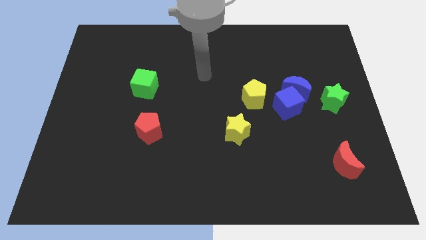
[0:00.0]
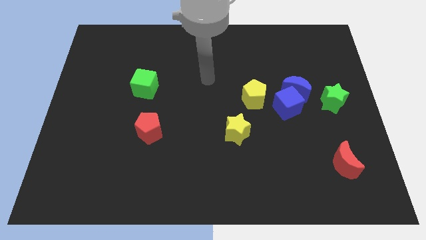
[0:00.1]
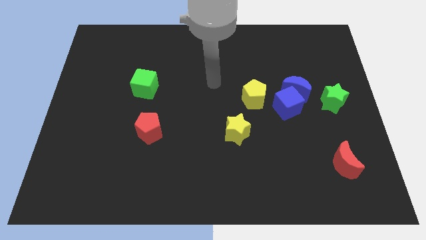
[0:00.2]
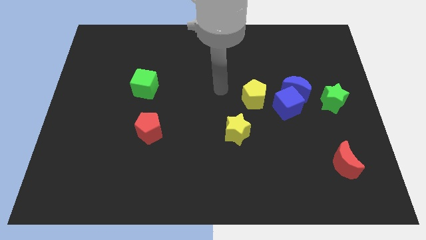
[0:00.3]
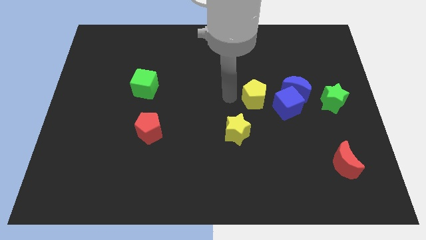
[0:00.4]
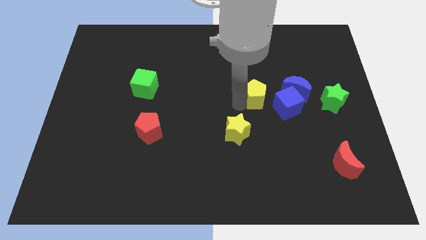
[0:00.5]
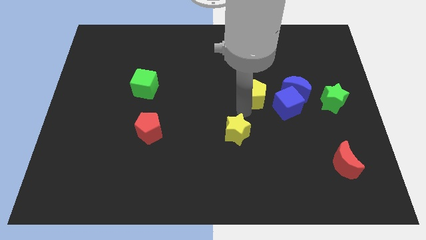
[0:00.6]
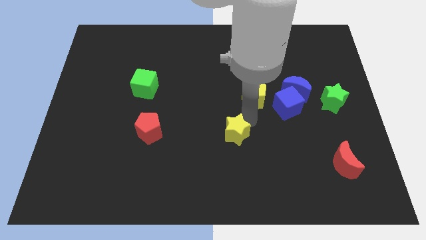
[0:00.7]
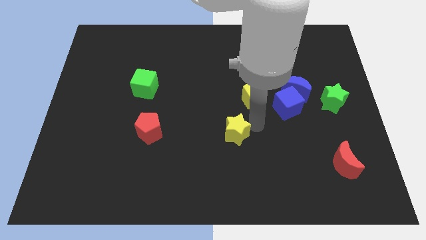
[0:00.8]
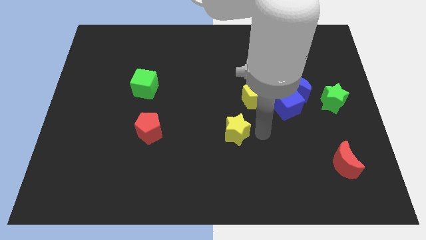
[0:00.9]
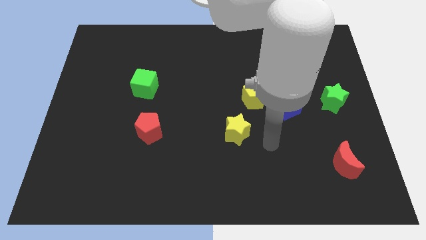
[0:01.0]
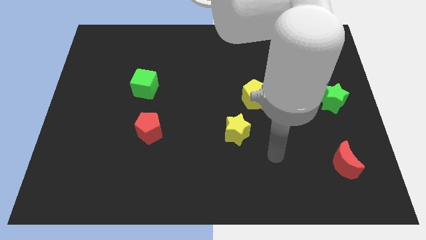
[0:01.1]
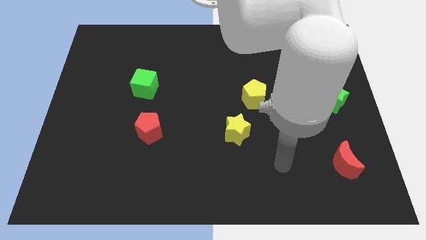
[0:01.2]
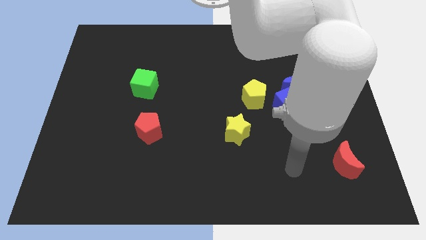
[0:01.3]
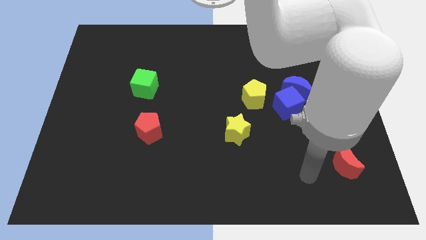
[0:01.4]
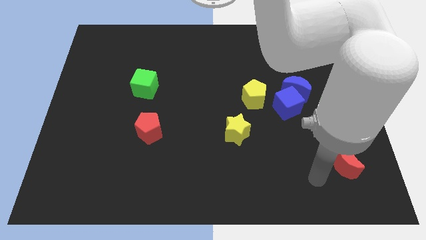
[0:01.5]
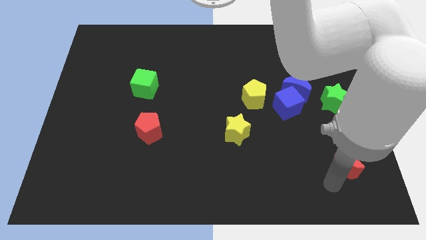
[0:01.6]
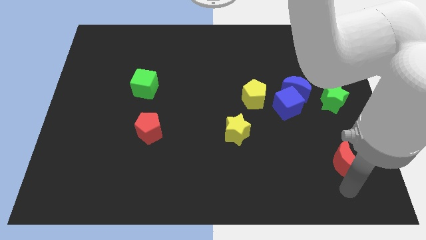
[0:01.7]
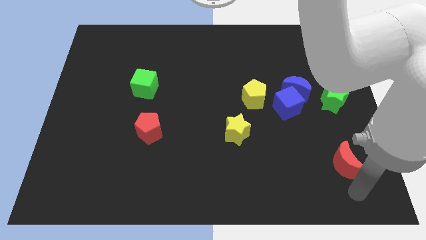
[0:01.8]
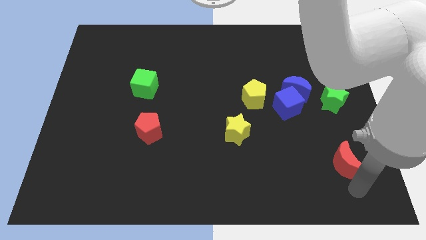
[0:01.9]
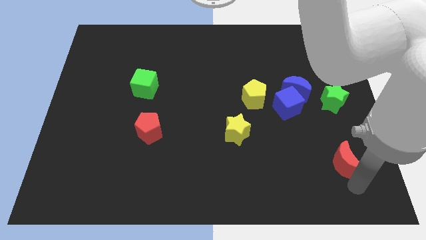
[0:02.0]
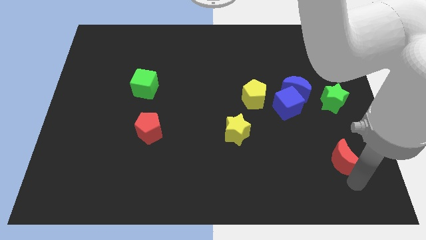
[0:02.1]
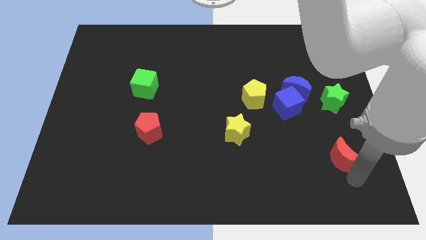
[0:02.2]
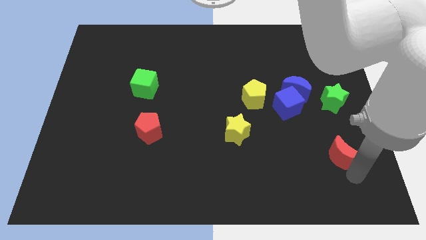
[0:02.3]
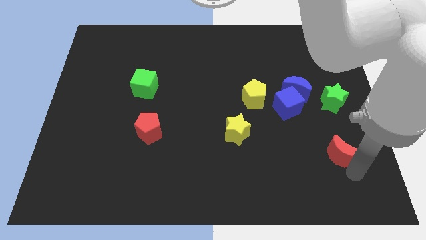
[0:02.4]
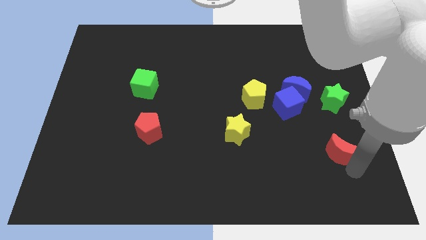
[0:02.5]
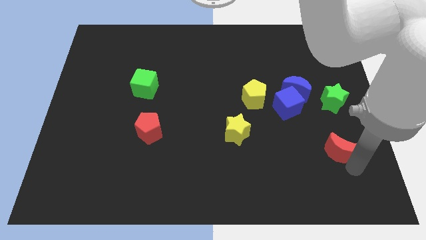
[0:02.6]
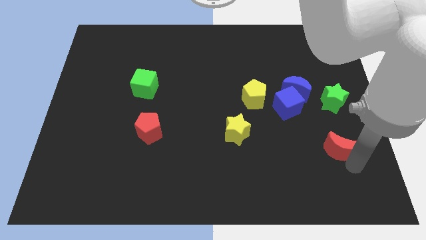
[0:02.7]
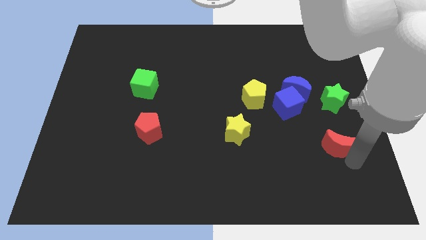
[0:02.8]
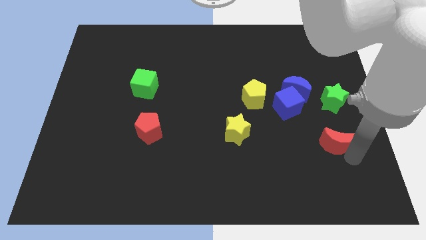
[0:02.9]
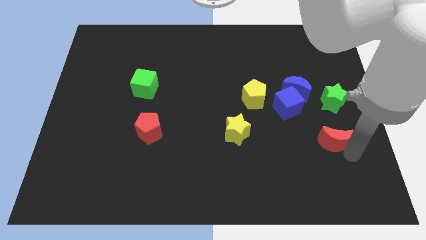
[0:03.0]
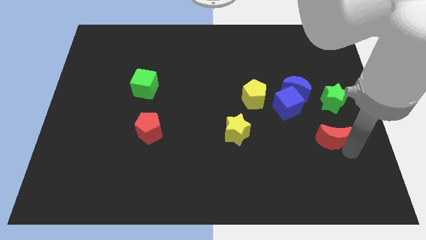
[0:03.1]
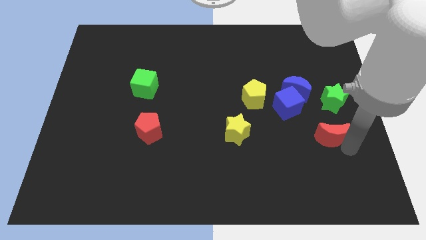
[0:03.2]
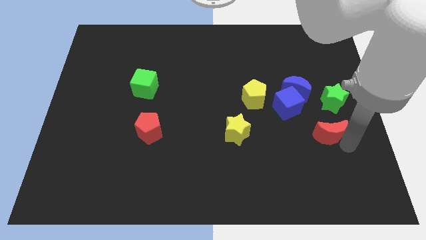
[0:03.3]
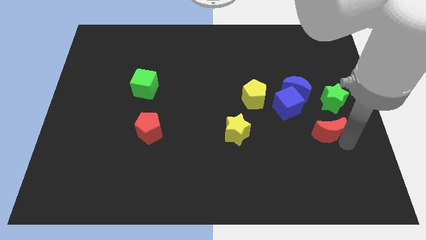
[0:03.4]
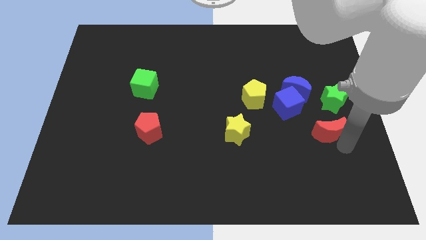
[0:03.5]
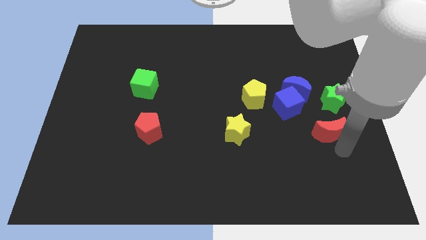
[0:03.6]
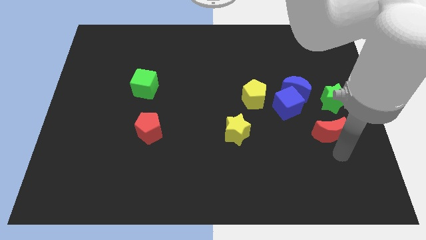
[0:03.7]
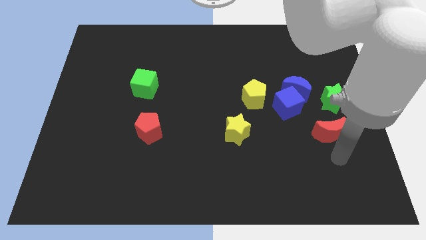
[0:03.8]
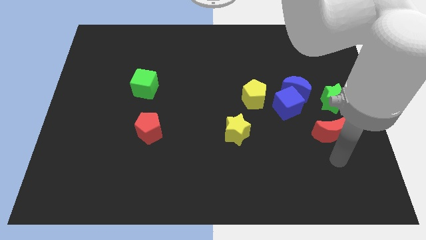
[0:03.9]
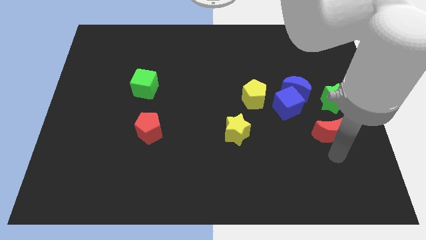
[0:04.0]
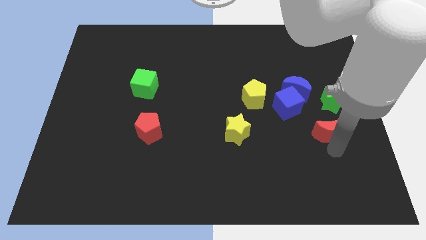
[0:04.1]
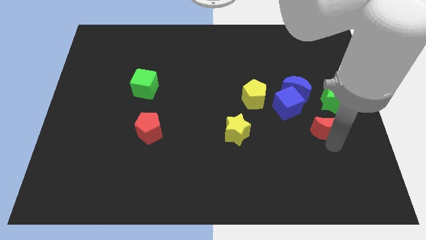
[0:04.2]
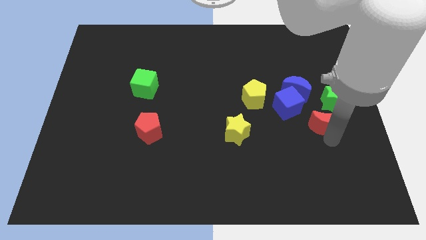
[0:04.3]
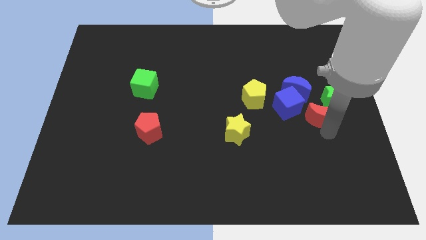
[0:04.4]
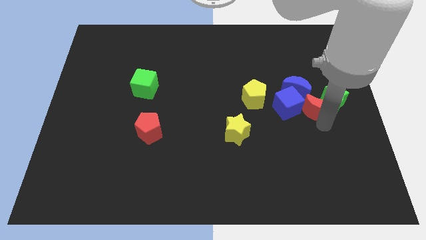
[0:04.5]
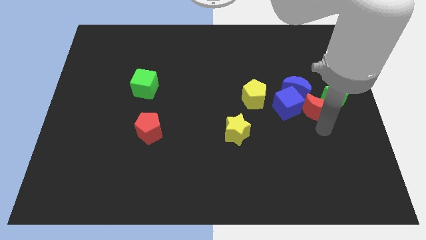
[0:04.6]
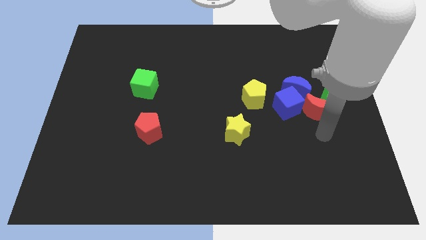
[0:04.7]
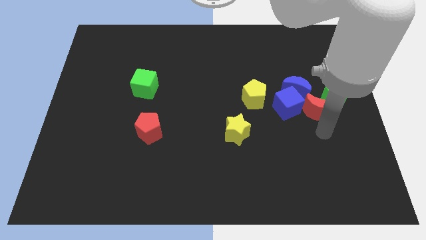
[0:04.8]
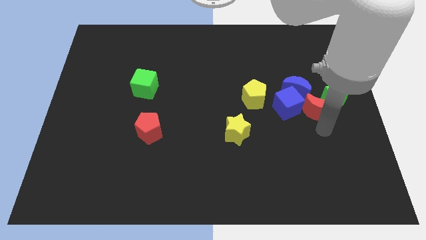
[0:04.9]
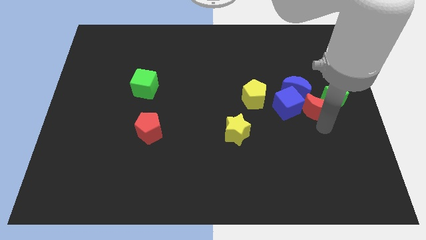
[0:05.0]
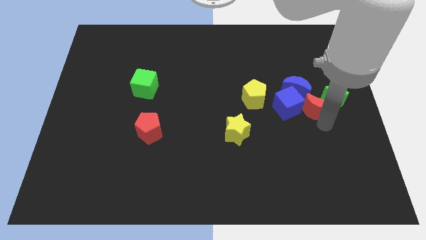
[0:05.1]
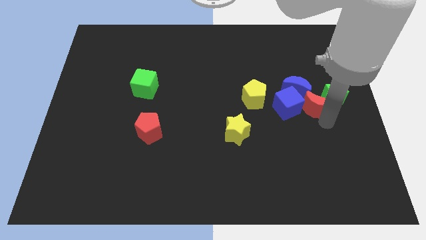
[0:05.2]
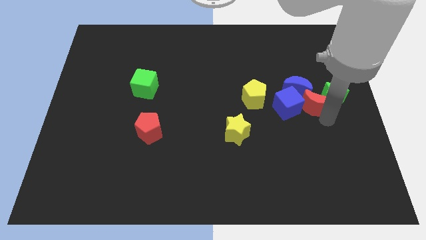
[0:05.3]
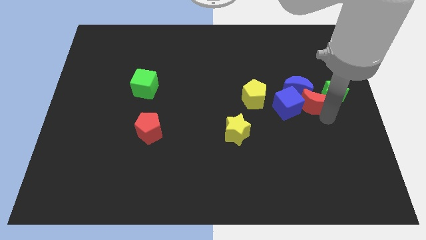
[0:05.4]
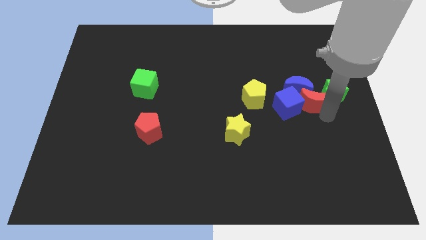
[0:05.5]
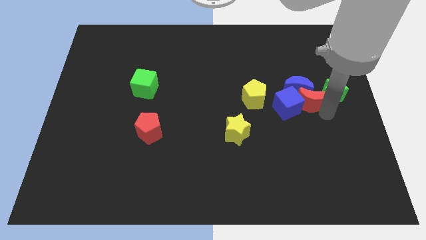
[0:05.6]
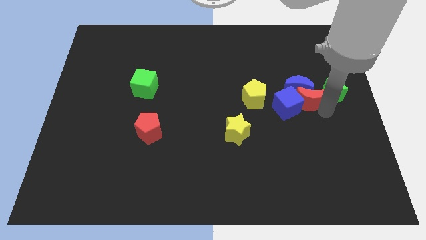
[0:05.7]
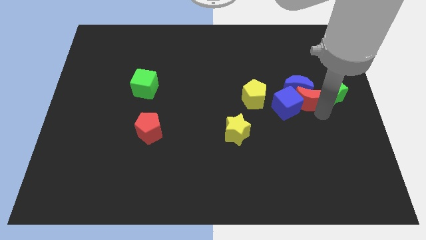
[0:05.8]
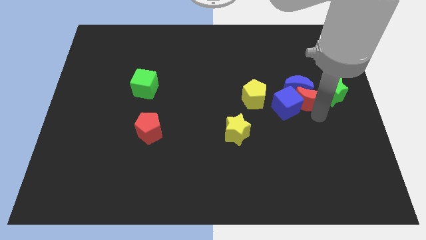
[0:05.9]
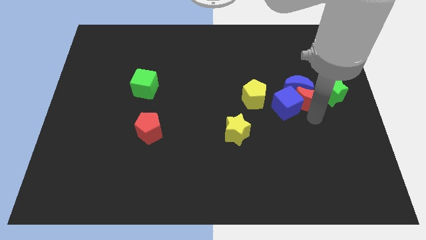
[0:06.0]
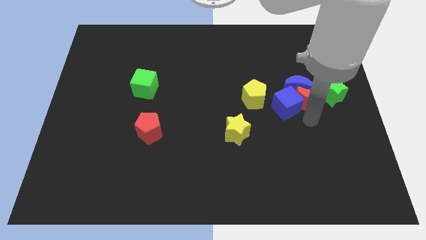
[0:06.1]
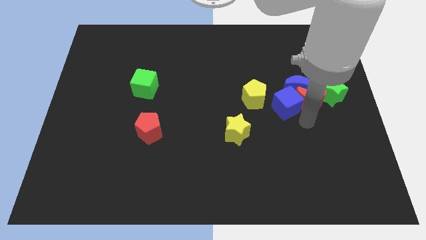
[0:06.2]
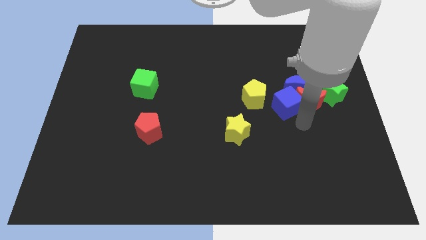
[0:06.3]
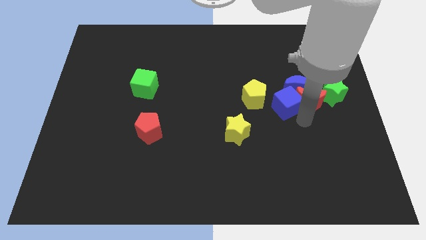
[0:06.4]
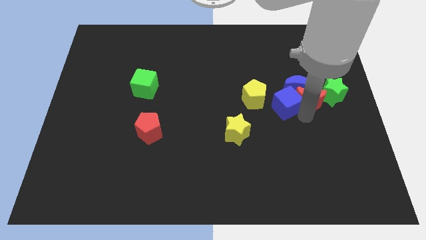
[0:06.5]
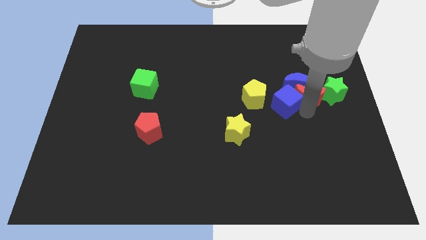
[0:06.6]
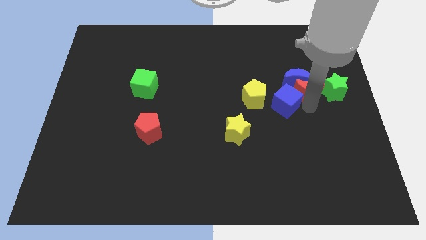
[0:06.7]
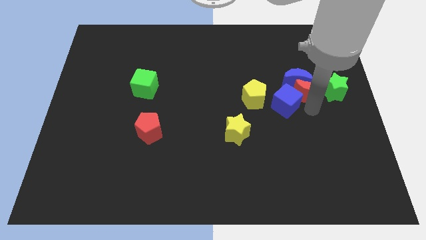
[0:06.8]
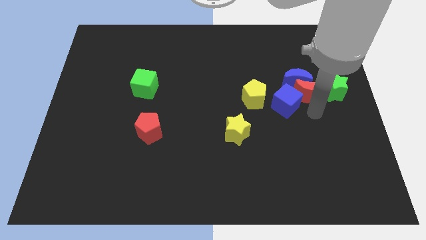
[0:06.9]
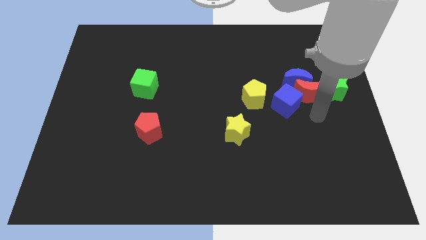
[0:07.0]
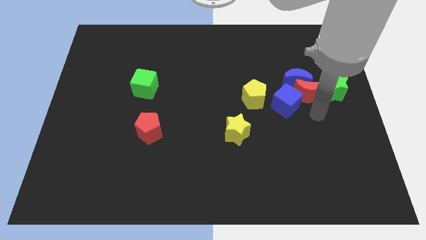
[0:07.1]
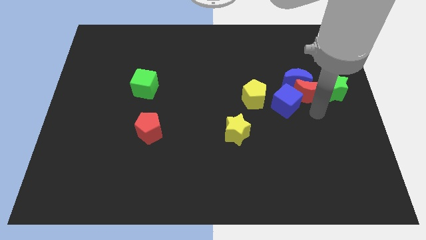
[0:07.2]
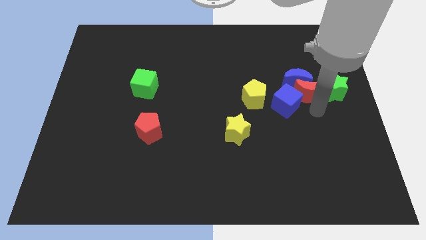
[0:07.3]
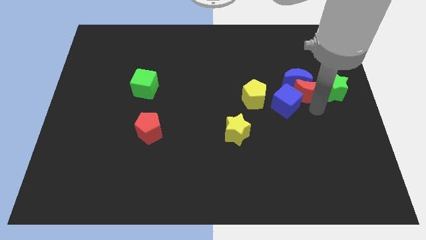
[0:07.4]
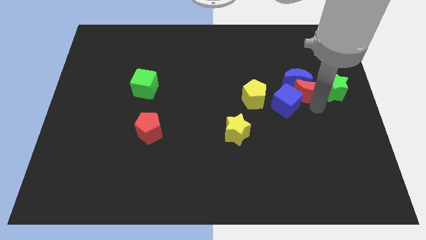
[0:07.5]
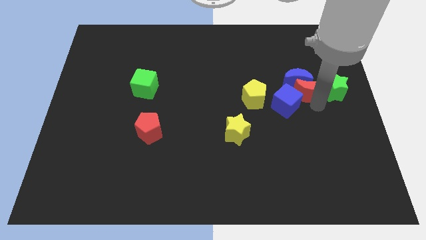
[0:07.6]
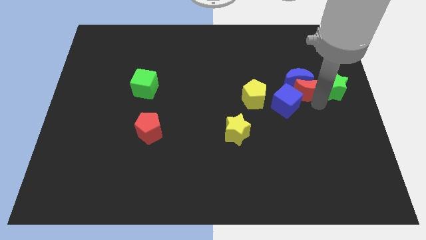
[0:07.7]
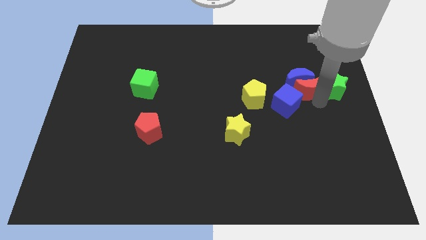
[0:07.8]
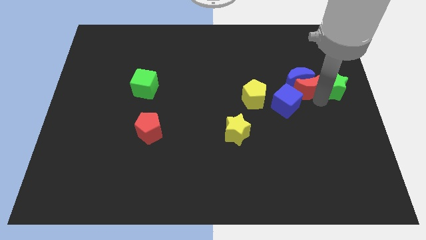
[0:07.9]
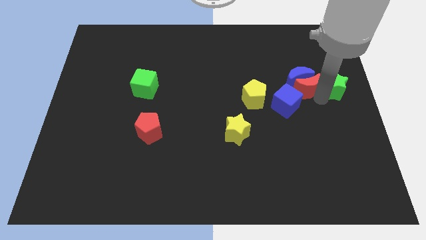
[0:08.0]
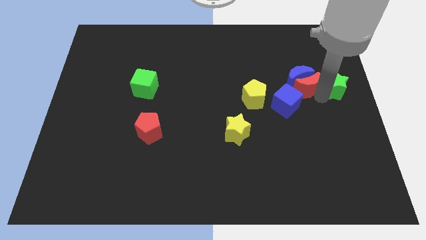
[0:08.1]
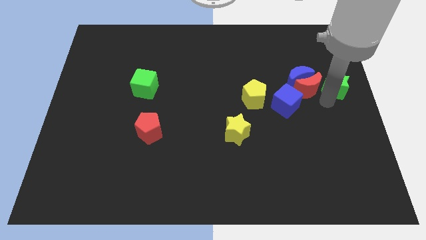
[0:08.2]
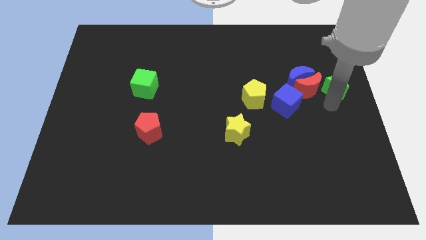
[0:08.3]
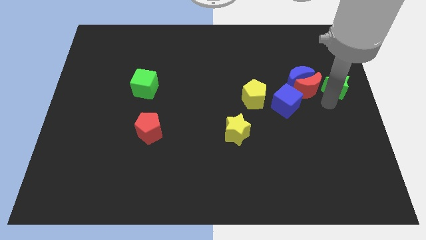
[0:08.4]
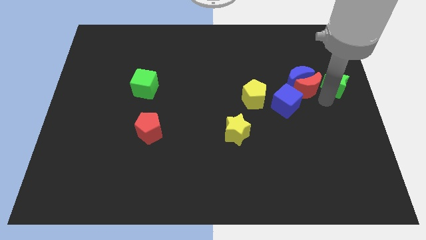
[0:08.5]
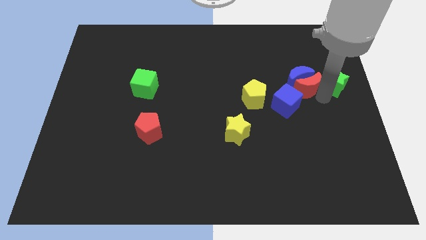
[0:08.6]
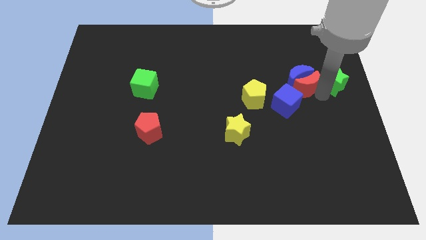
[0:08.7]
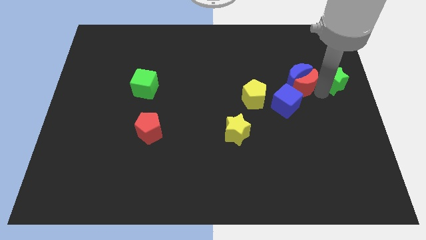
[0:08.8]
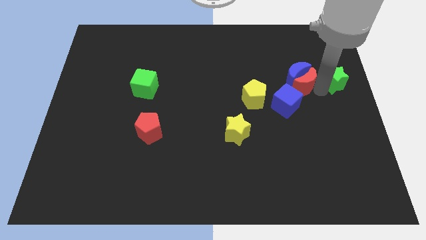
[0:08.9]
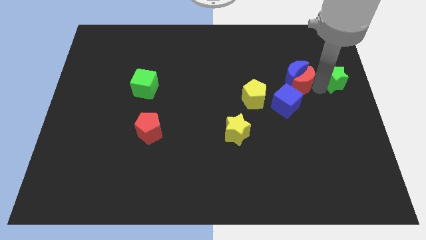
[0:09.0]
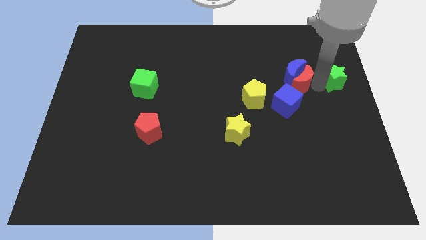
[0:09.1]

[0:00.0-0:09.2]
move the red moon to the top side of the blue cube
